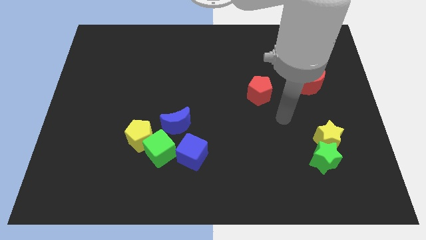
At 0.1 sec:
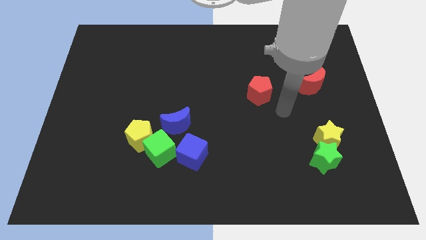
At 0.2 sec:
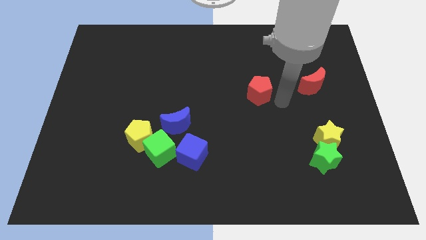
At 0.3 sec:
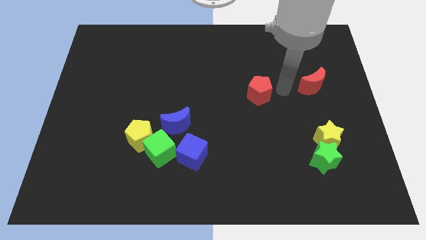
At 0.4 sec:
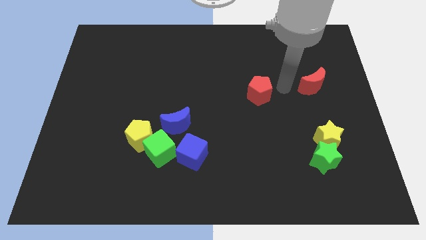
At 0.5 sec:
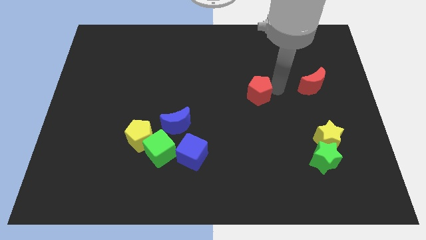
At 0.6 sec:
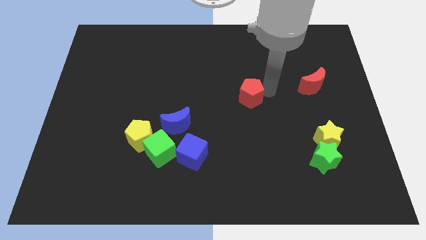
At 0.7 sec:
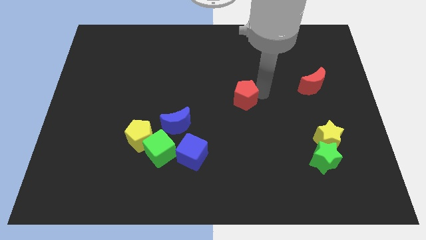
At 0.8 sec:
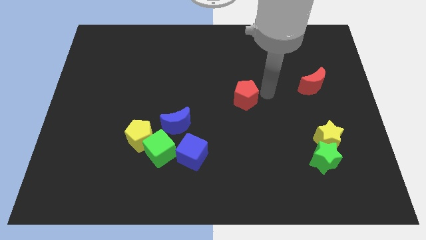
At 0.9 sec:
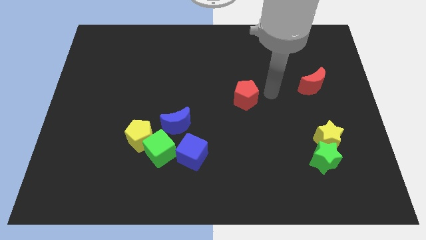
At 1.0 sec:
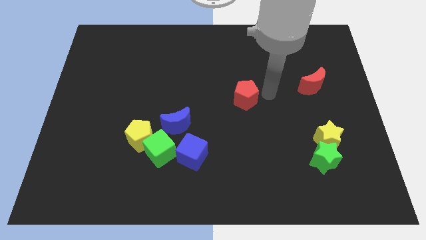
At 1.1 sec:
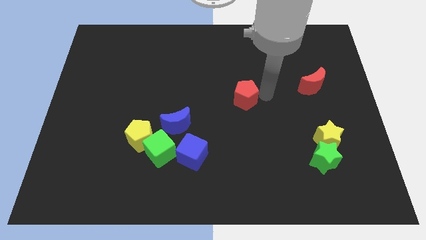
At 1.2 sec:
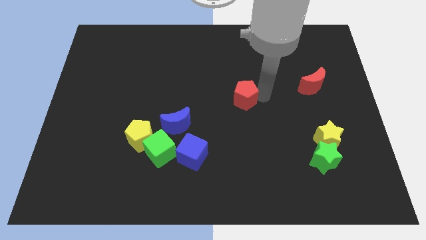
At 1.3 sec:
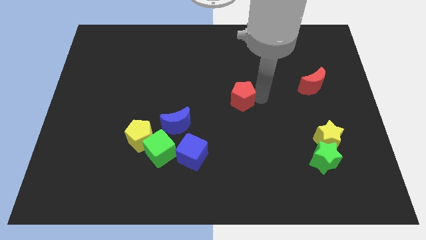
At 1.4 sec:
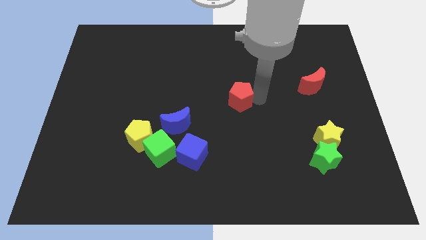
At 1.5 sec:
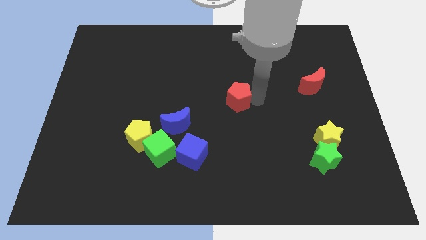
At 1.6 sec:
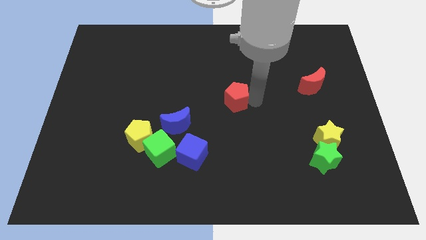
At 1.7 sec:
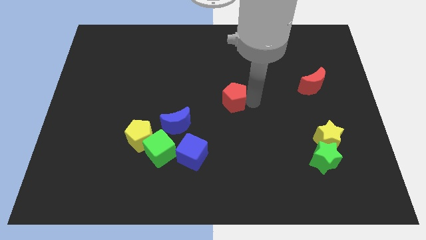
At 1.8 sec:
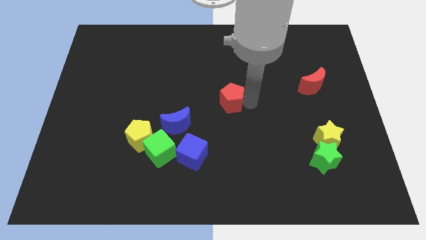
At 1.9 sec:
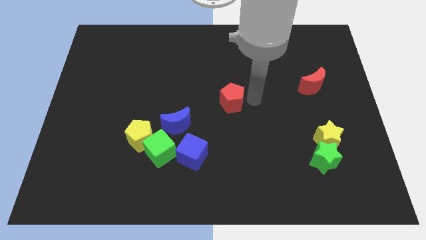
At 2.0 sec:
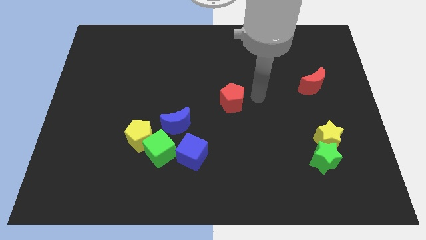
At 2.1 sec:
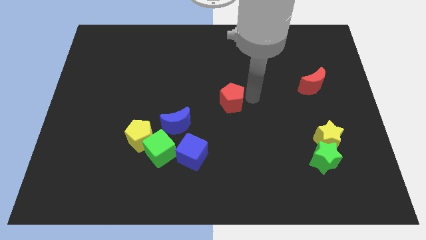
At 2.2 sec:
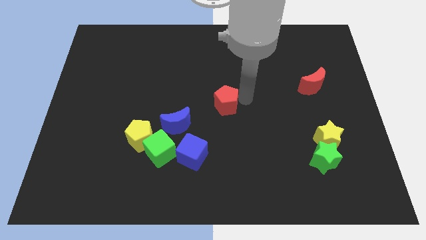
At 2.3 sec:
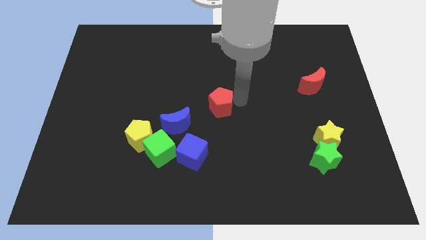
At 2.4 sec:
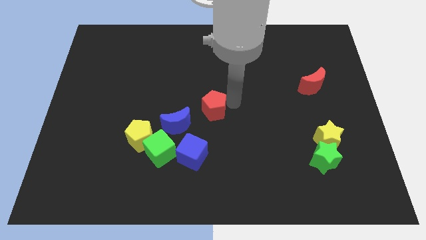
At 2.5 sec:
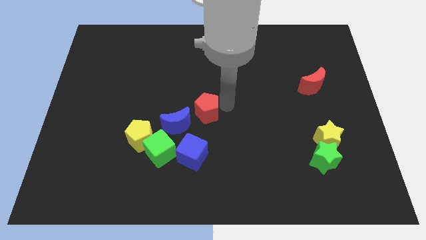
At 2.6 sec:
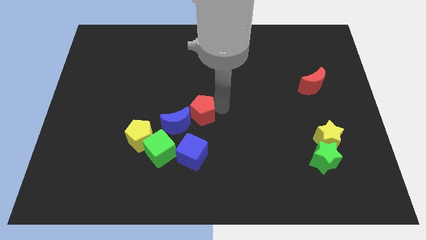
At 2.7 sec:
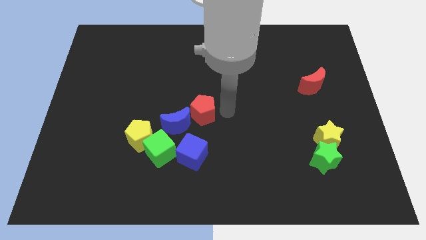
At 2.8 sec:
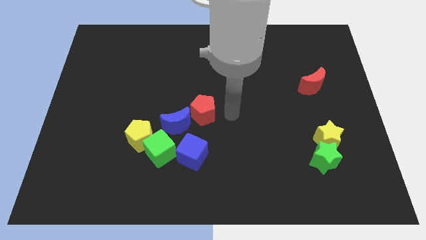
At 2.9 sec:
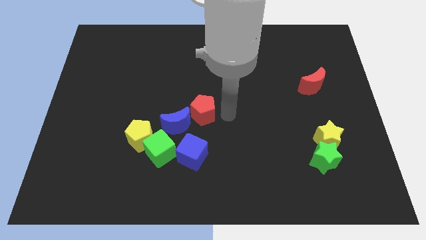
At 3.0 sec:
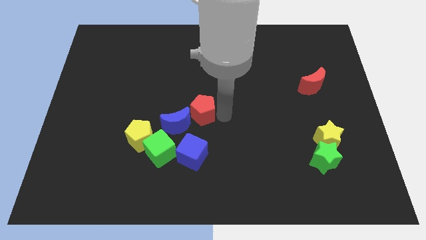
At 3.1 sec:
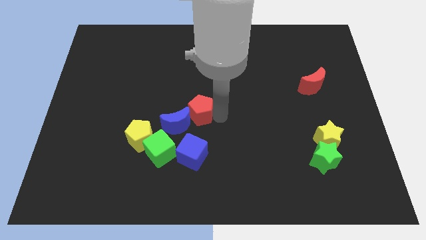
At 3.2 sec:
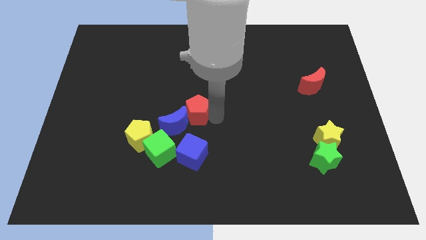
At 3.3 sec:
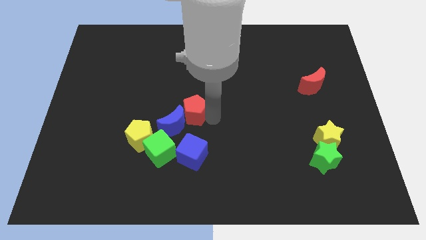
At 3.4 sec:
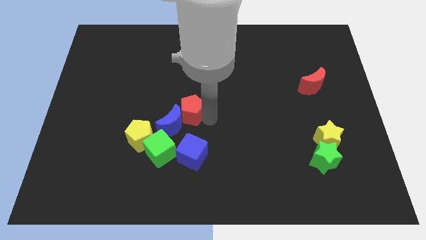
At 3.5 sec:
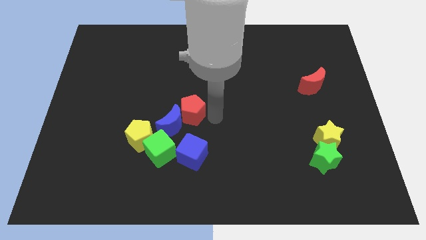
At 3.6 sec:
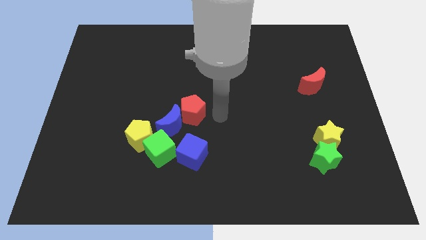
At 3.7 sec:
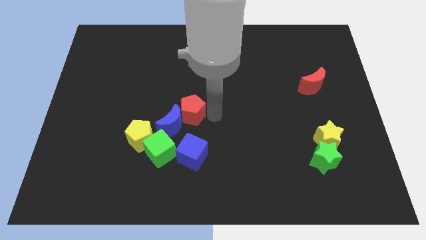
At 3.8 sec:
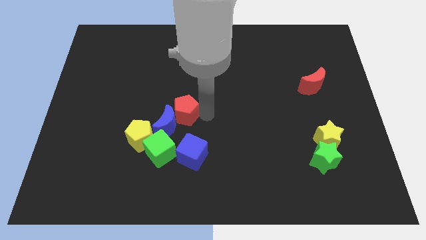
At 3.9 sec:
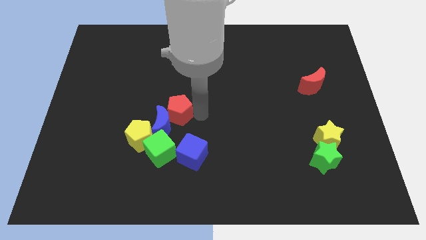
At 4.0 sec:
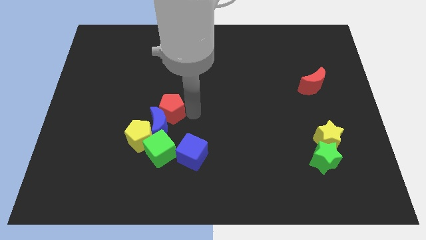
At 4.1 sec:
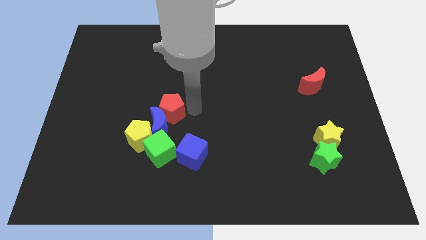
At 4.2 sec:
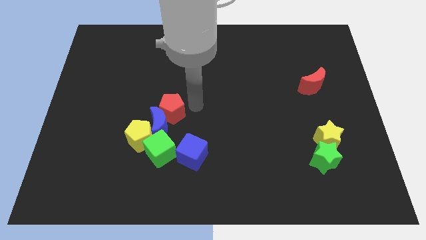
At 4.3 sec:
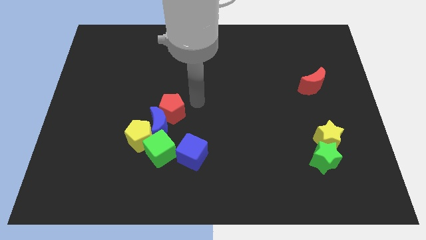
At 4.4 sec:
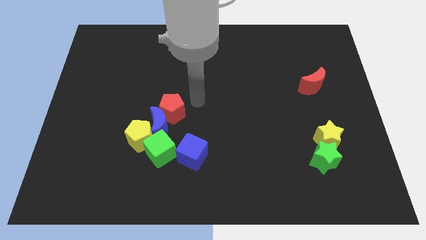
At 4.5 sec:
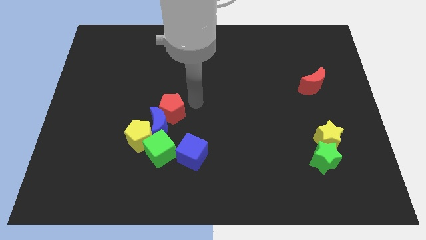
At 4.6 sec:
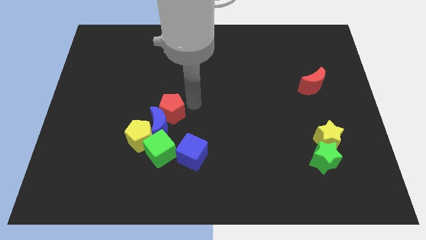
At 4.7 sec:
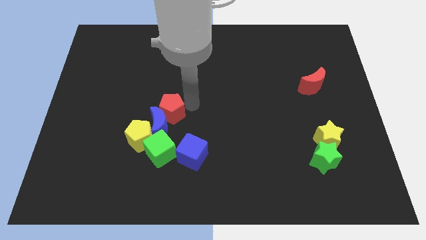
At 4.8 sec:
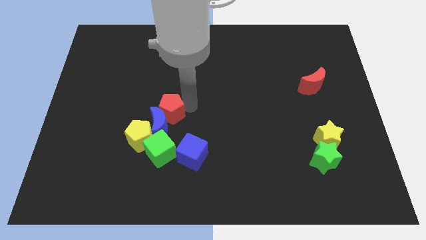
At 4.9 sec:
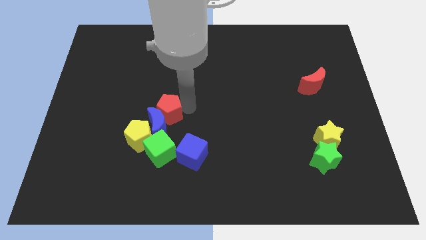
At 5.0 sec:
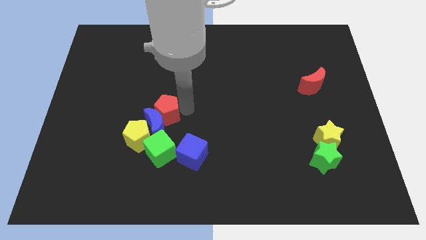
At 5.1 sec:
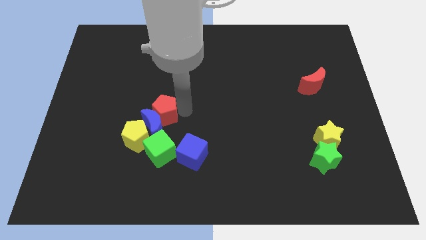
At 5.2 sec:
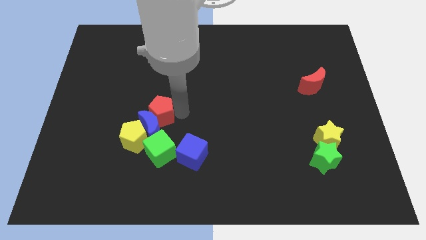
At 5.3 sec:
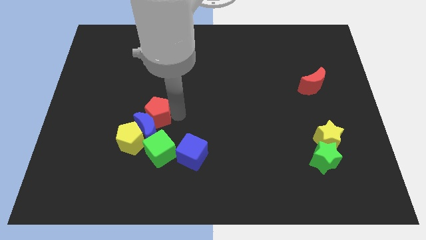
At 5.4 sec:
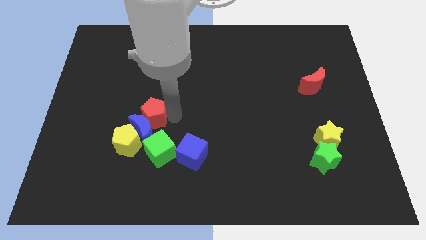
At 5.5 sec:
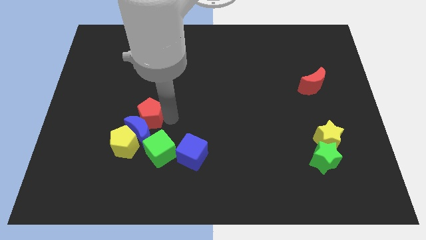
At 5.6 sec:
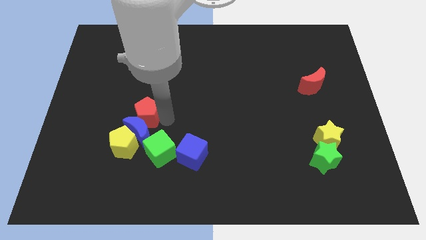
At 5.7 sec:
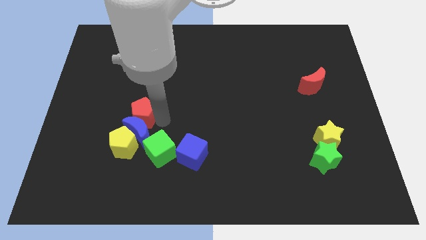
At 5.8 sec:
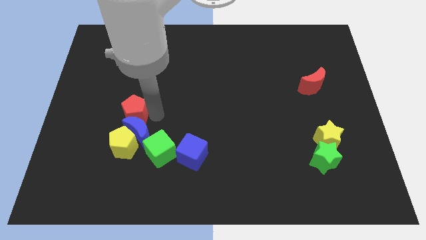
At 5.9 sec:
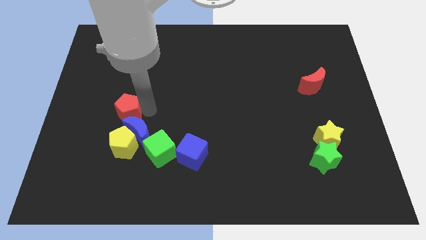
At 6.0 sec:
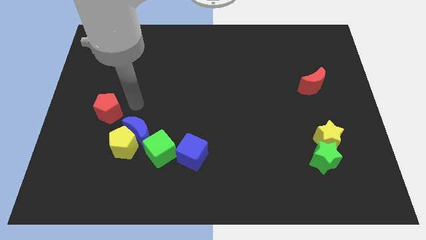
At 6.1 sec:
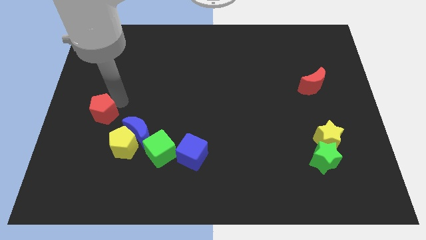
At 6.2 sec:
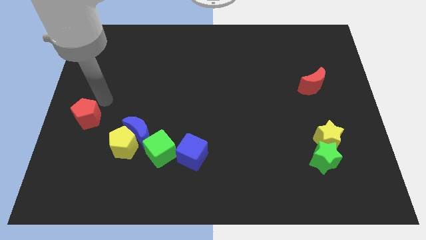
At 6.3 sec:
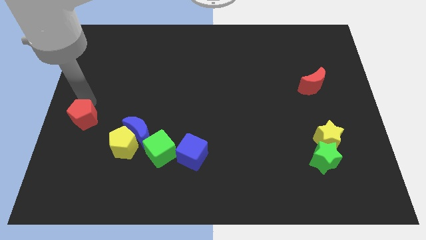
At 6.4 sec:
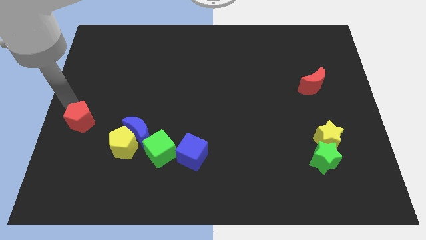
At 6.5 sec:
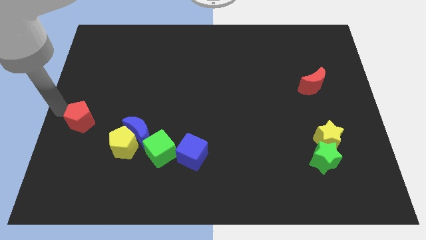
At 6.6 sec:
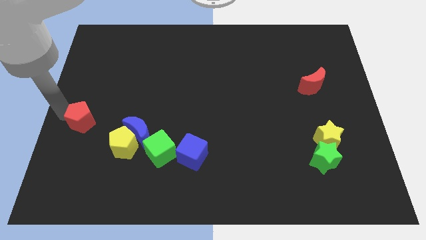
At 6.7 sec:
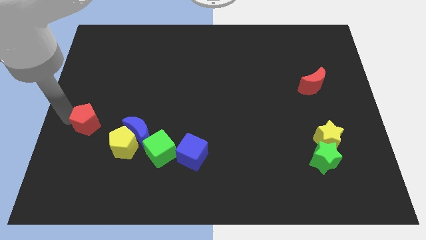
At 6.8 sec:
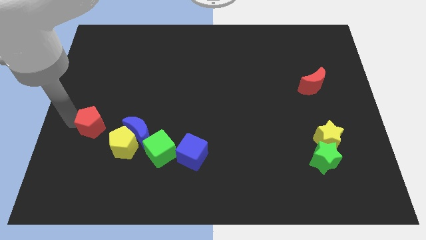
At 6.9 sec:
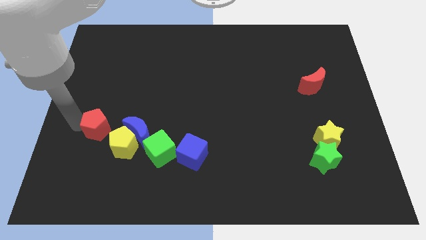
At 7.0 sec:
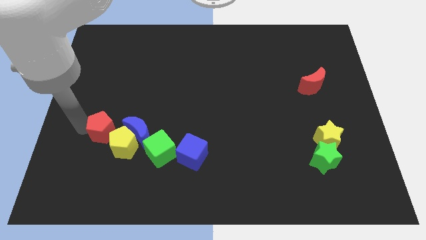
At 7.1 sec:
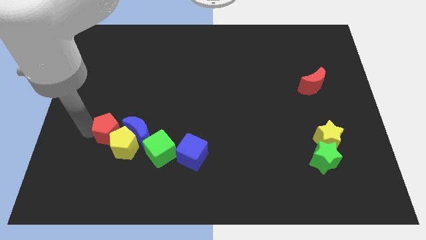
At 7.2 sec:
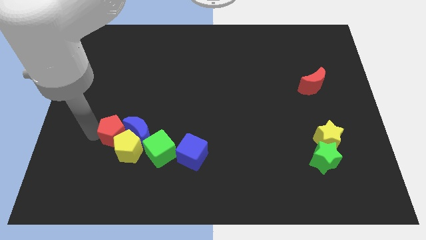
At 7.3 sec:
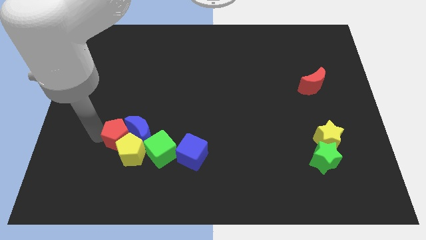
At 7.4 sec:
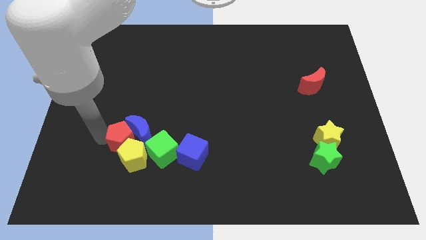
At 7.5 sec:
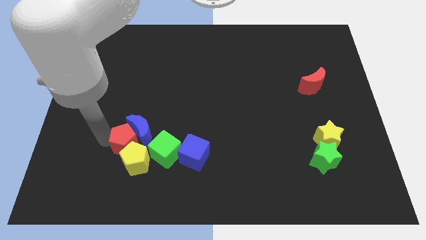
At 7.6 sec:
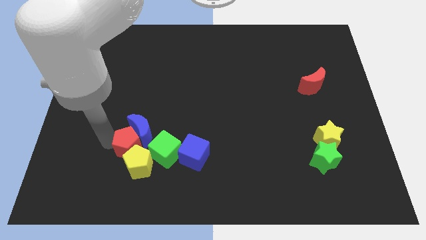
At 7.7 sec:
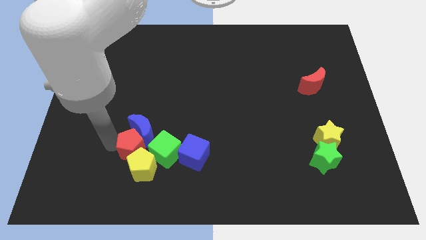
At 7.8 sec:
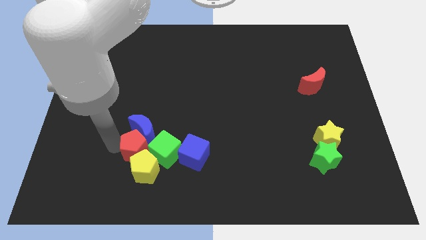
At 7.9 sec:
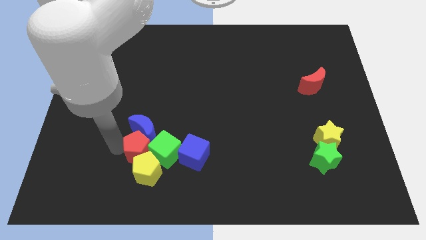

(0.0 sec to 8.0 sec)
push the red pentagon towards the green cube
